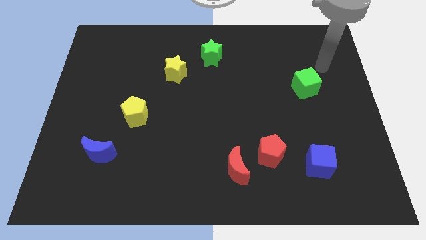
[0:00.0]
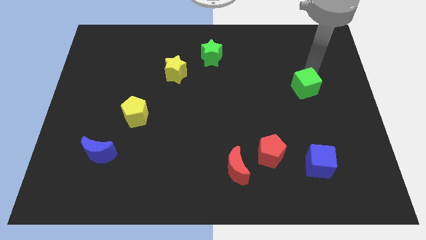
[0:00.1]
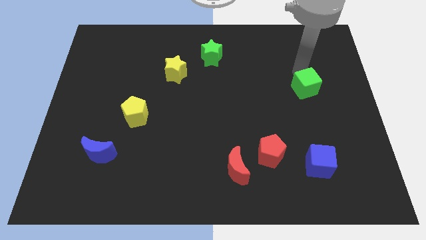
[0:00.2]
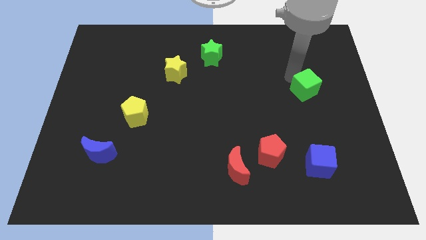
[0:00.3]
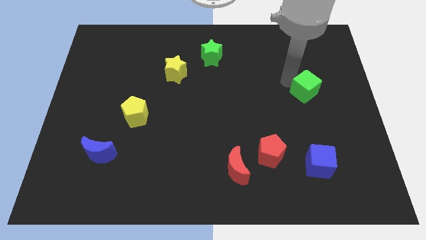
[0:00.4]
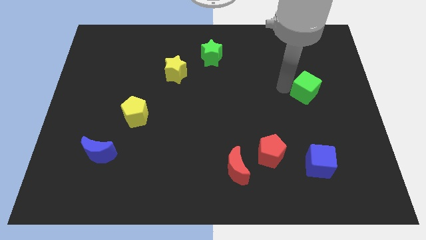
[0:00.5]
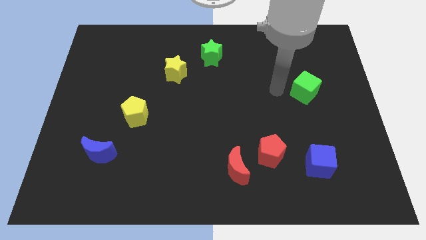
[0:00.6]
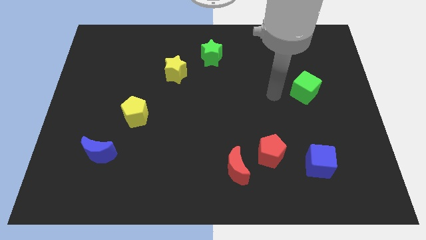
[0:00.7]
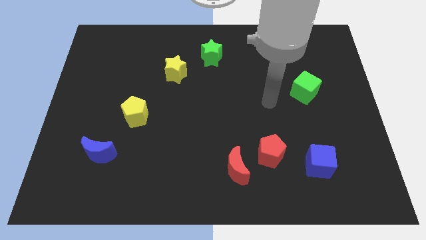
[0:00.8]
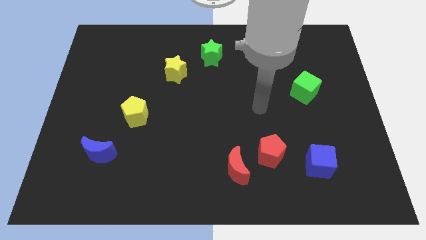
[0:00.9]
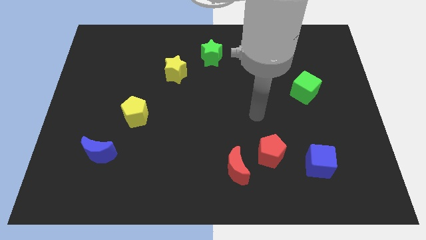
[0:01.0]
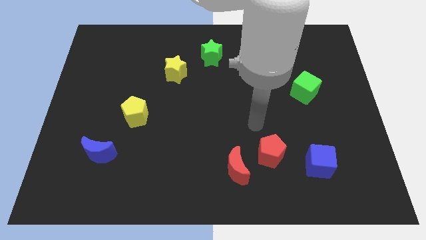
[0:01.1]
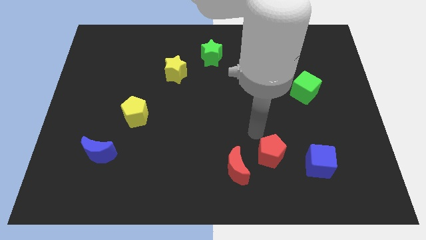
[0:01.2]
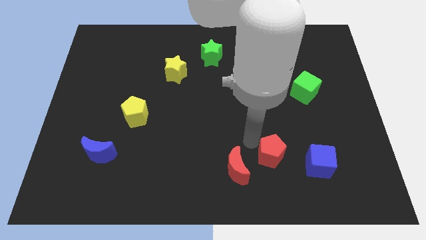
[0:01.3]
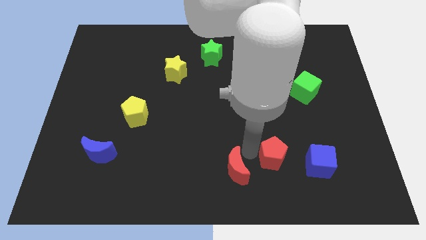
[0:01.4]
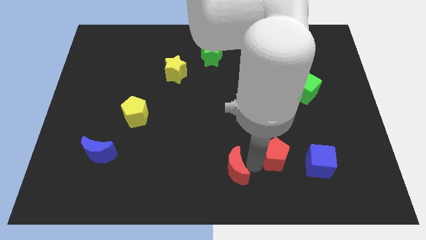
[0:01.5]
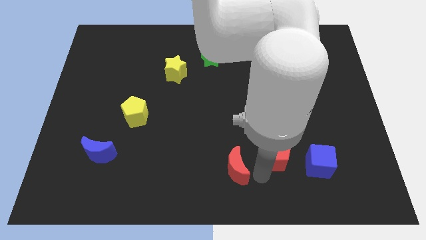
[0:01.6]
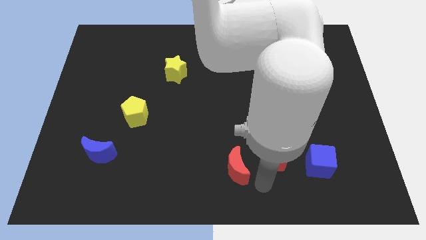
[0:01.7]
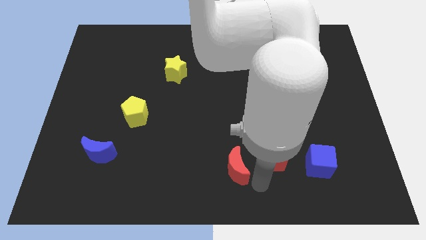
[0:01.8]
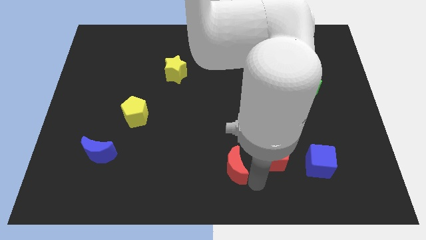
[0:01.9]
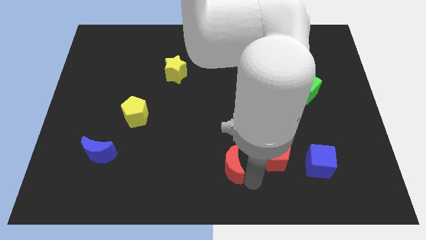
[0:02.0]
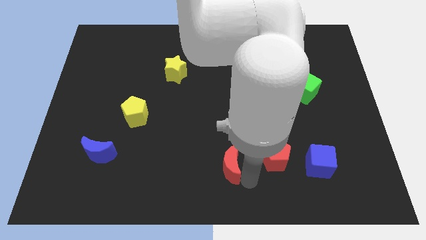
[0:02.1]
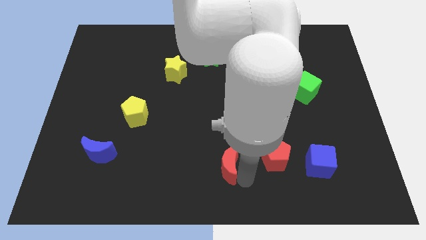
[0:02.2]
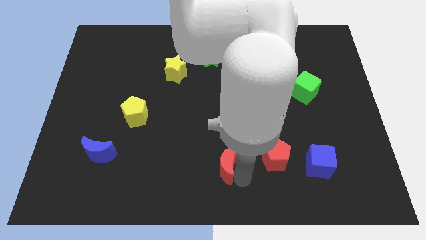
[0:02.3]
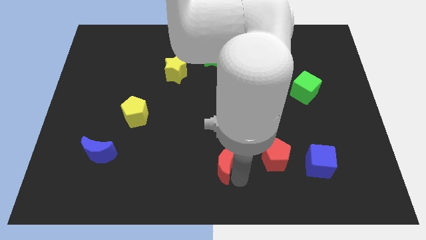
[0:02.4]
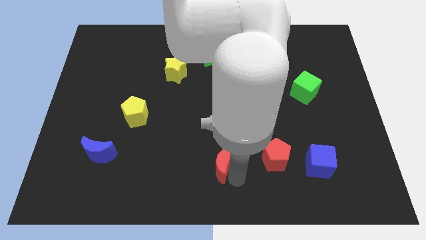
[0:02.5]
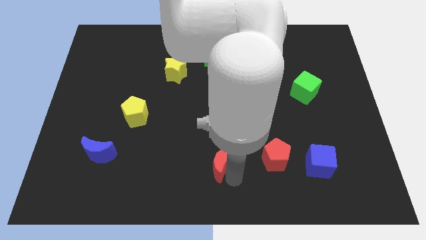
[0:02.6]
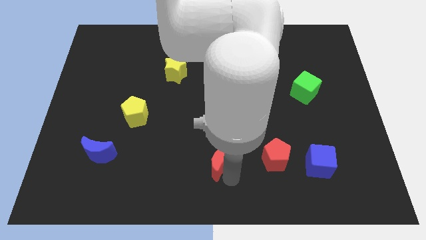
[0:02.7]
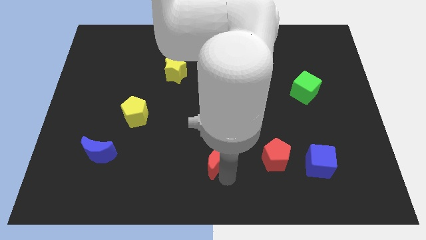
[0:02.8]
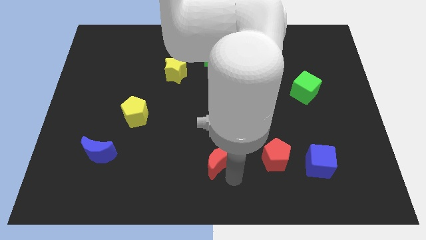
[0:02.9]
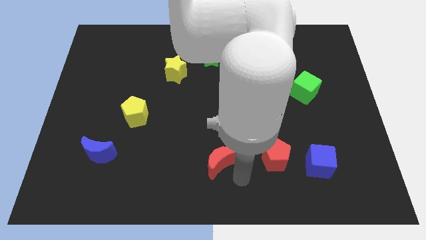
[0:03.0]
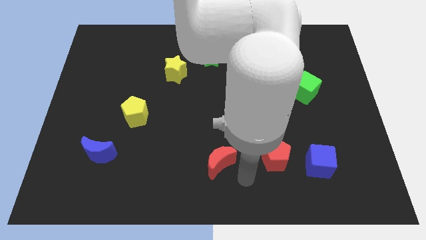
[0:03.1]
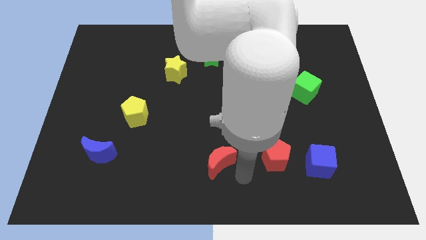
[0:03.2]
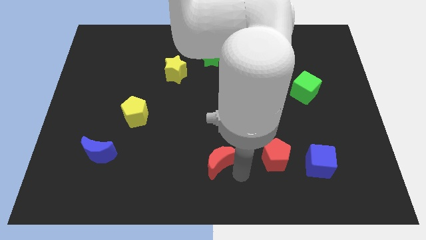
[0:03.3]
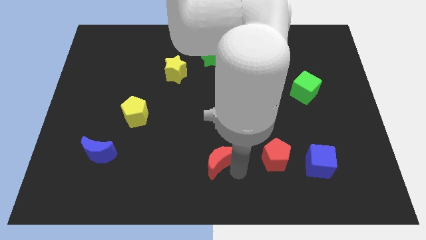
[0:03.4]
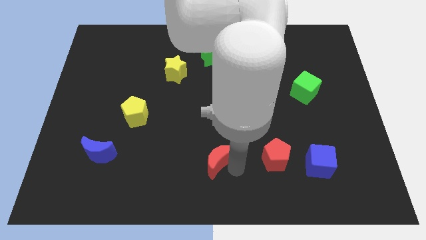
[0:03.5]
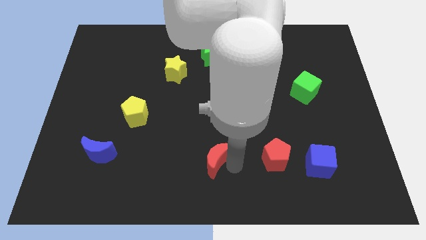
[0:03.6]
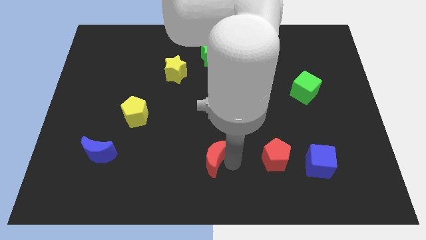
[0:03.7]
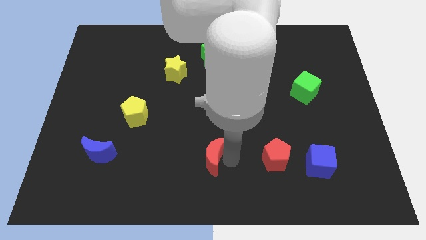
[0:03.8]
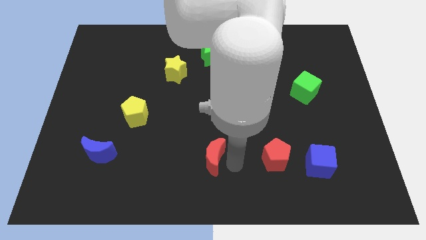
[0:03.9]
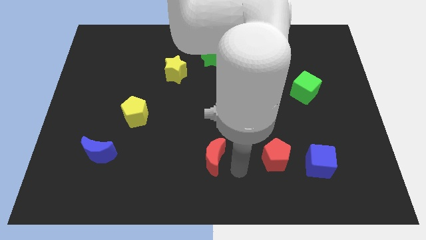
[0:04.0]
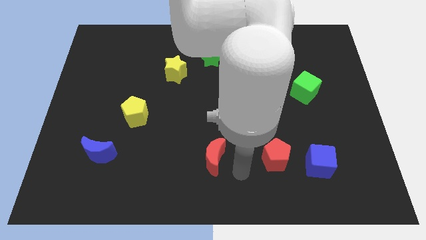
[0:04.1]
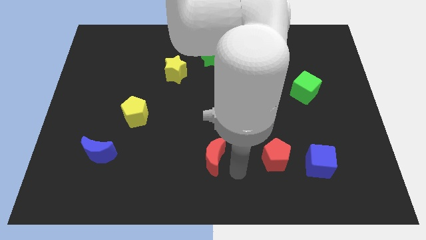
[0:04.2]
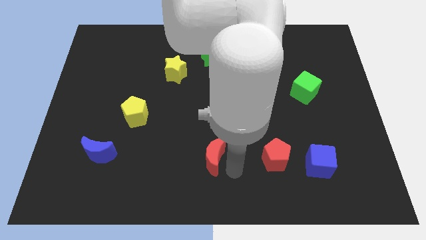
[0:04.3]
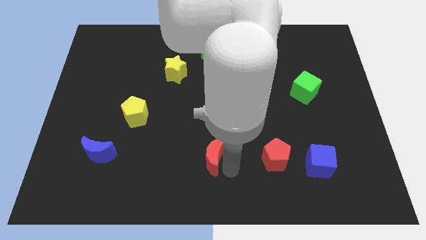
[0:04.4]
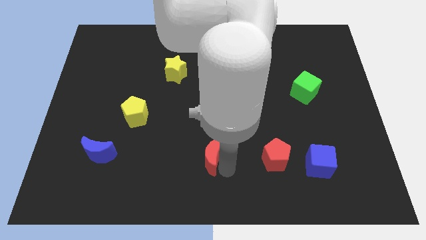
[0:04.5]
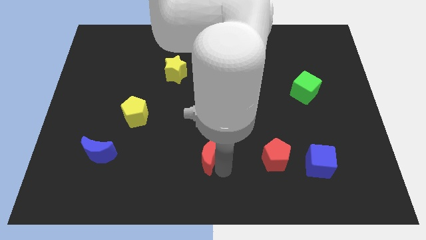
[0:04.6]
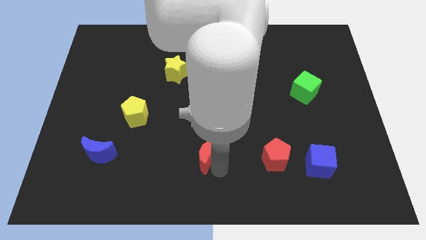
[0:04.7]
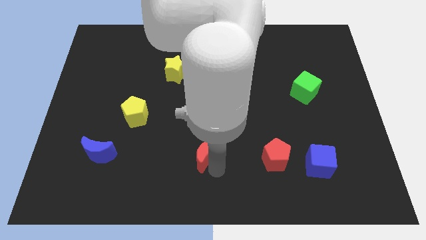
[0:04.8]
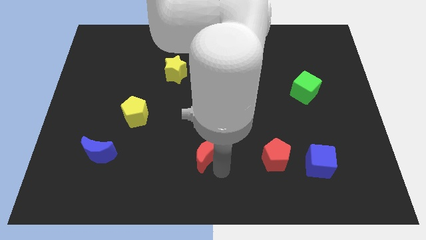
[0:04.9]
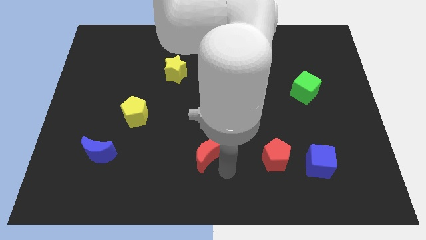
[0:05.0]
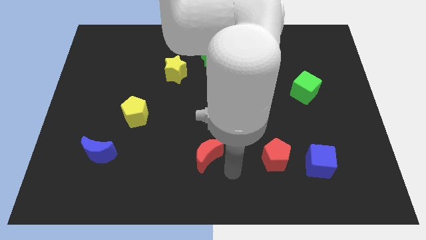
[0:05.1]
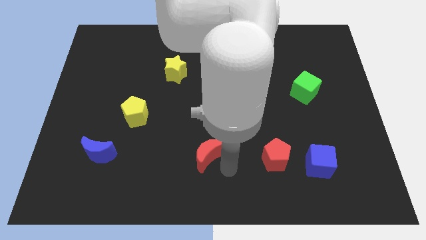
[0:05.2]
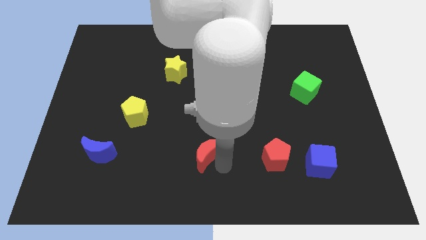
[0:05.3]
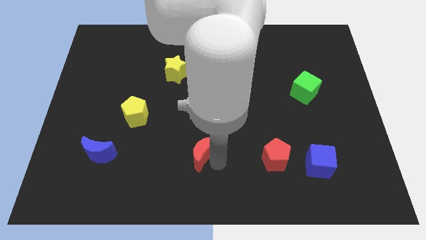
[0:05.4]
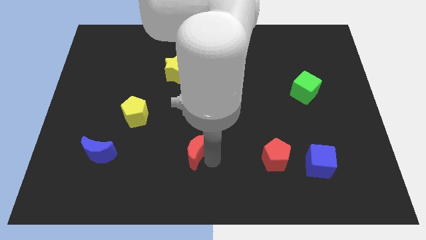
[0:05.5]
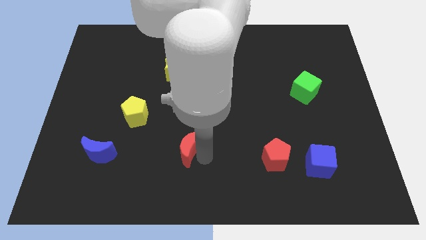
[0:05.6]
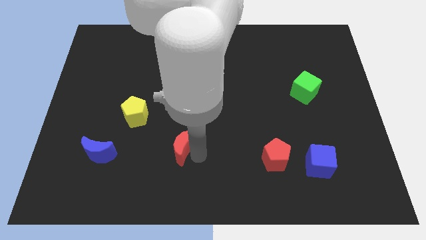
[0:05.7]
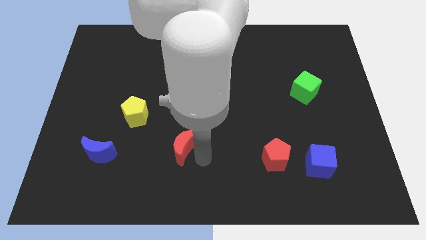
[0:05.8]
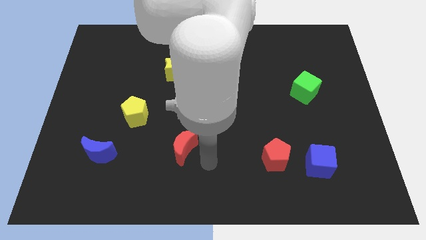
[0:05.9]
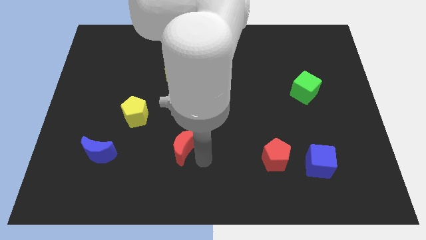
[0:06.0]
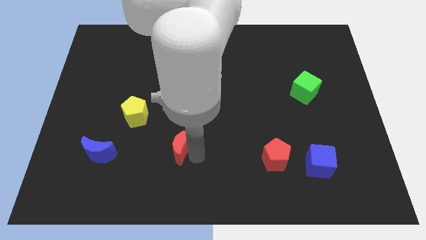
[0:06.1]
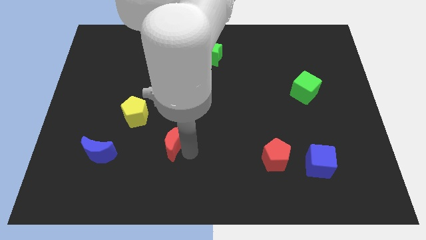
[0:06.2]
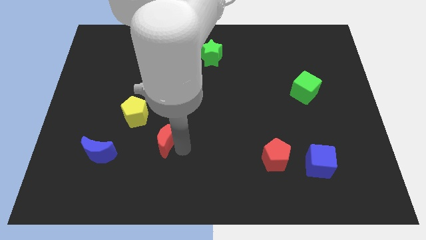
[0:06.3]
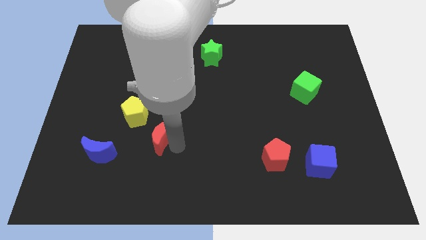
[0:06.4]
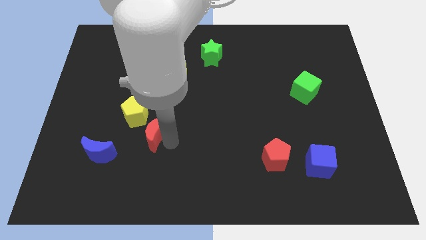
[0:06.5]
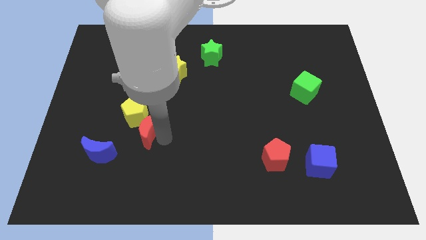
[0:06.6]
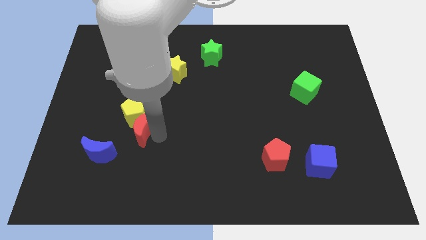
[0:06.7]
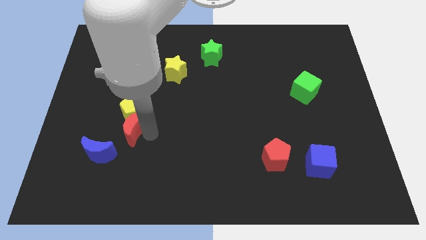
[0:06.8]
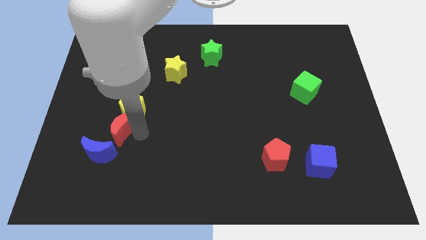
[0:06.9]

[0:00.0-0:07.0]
slide the red moon to the top of the blue moon
